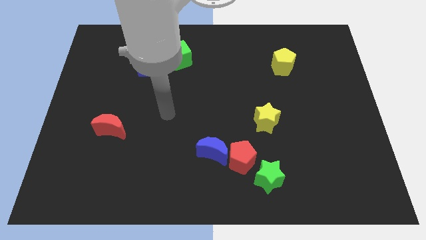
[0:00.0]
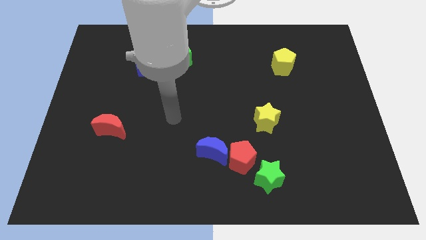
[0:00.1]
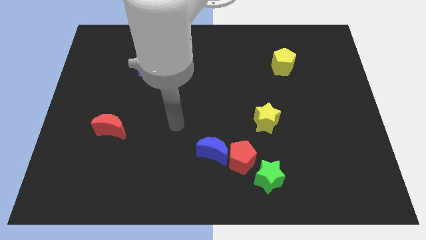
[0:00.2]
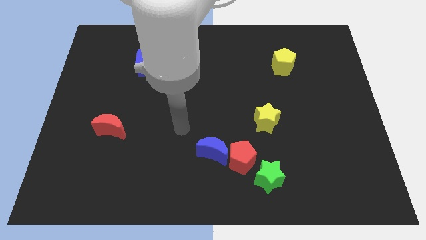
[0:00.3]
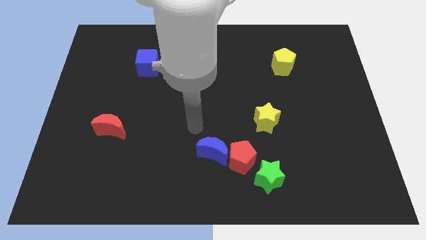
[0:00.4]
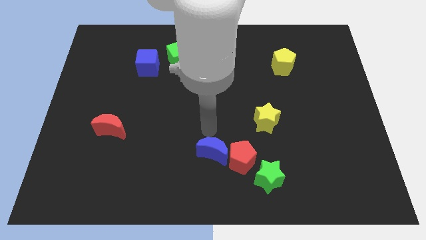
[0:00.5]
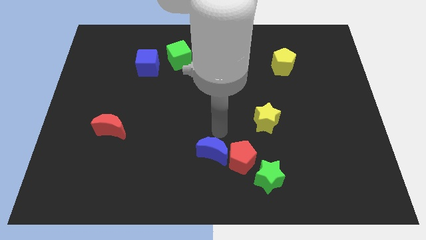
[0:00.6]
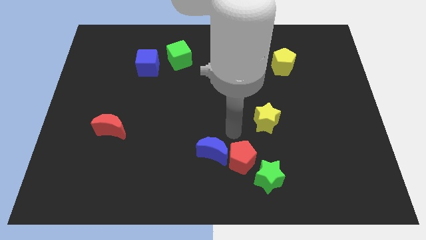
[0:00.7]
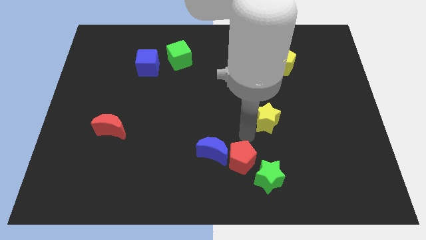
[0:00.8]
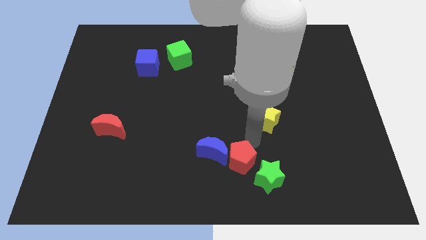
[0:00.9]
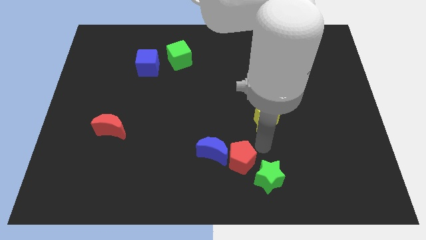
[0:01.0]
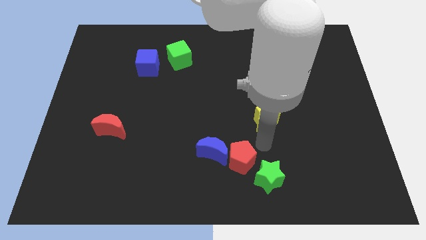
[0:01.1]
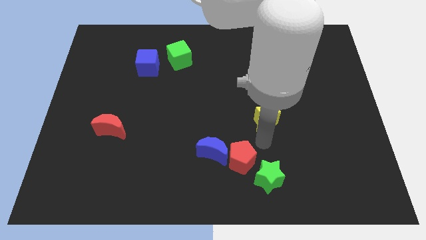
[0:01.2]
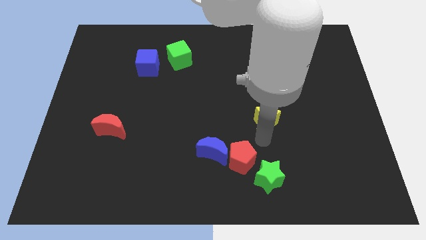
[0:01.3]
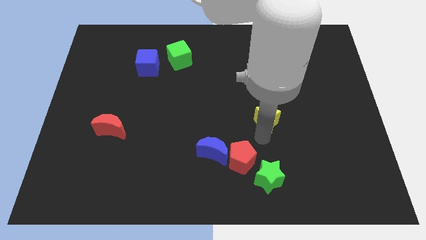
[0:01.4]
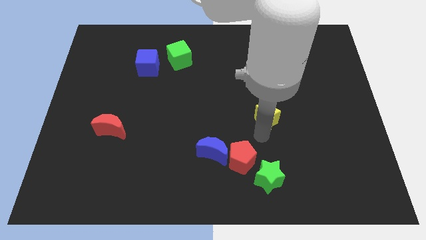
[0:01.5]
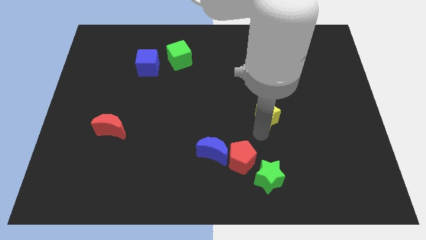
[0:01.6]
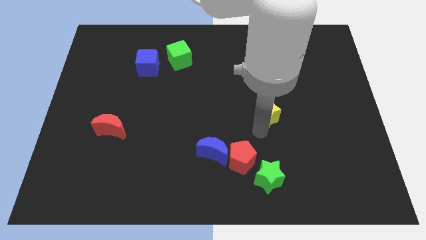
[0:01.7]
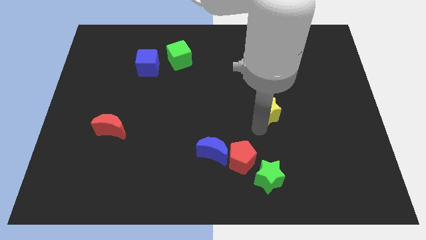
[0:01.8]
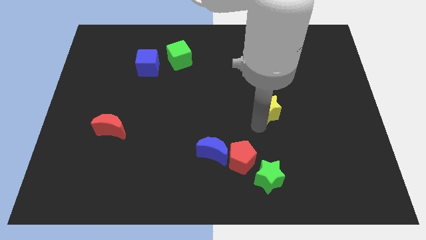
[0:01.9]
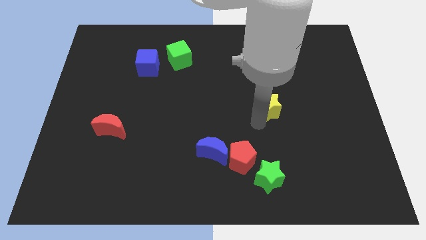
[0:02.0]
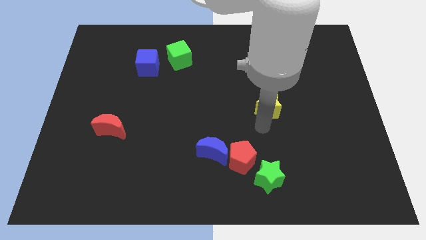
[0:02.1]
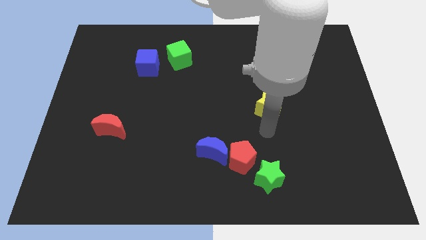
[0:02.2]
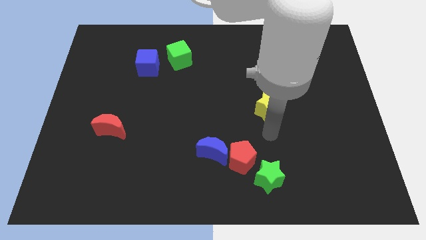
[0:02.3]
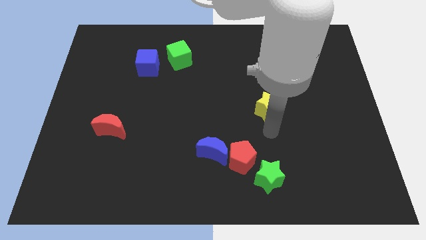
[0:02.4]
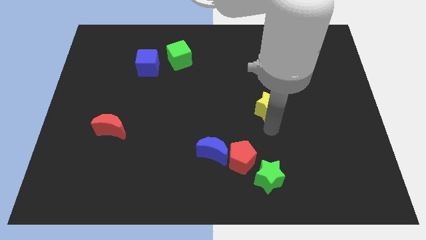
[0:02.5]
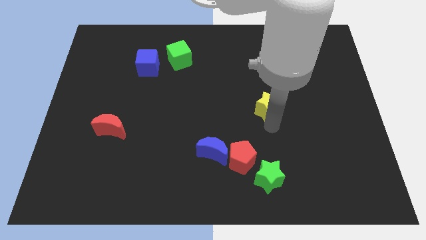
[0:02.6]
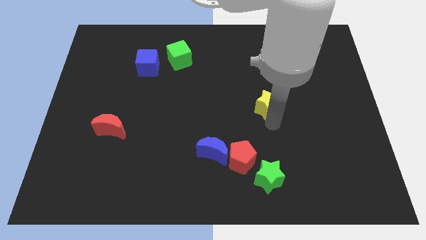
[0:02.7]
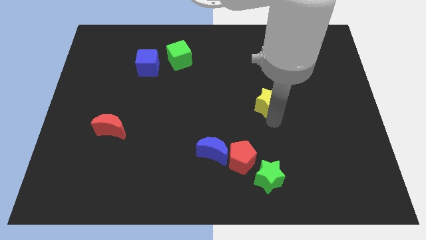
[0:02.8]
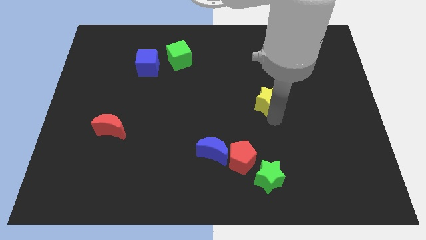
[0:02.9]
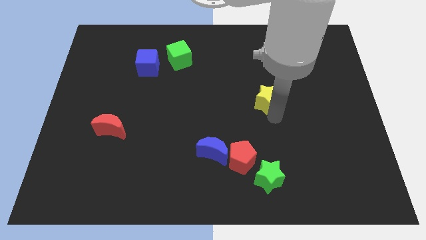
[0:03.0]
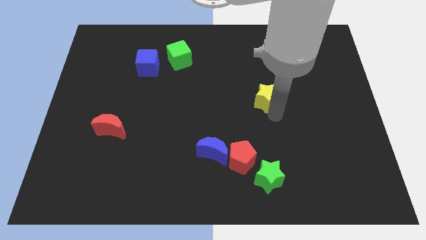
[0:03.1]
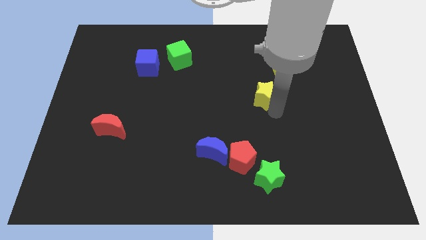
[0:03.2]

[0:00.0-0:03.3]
slide the yellow star a little bit upwards

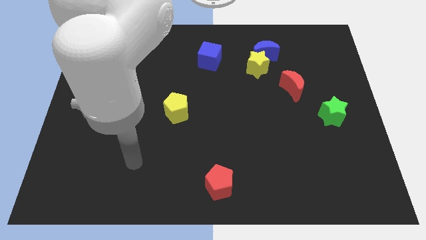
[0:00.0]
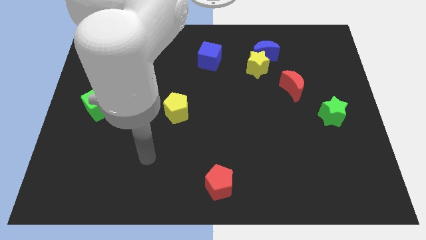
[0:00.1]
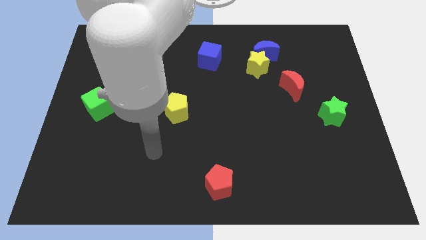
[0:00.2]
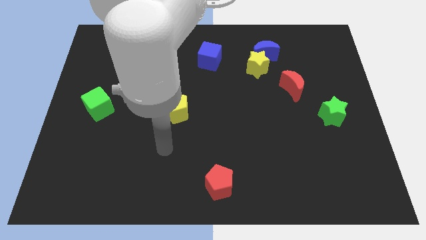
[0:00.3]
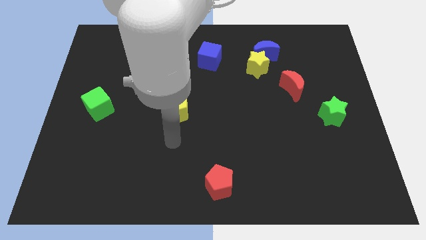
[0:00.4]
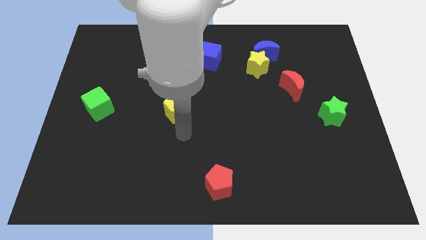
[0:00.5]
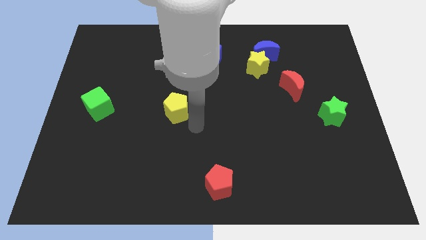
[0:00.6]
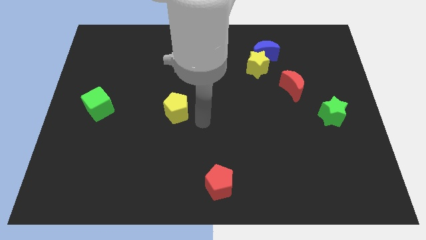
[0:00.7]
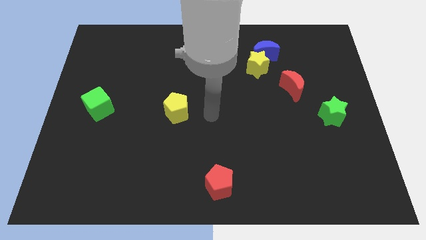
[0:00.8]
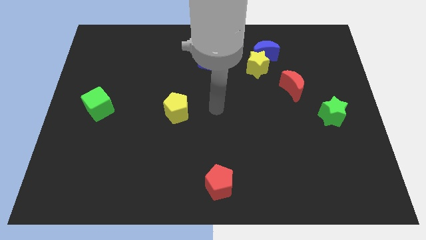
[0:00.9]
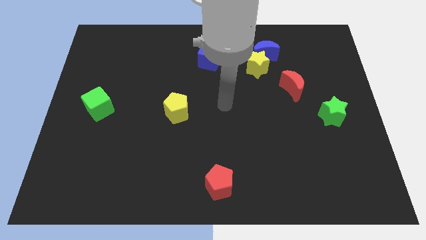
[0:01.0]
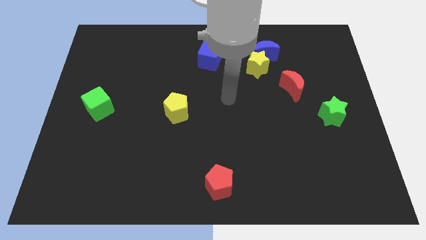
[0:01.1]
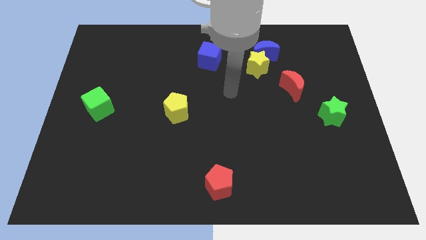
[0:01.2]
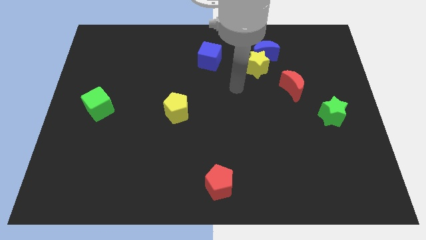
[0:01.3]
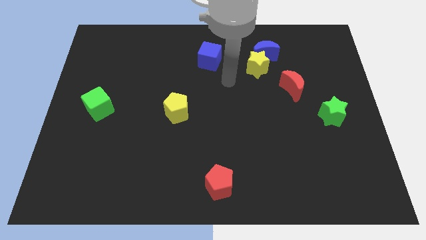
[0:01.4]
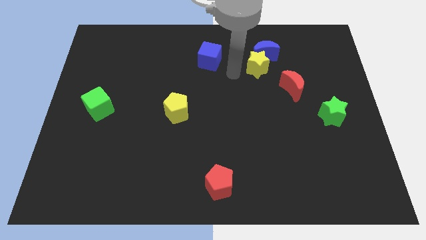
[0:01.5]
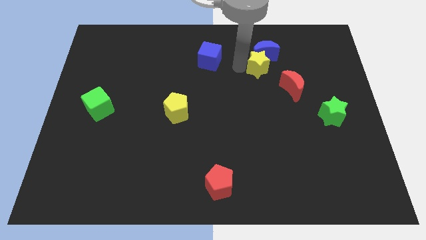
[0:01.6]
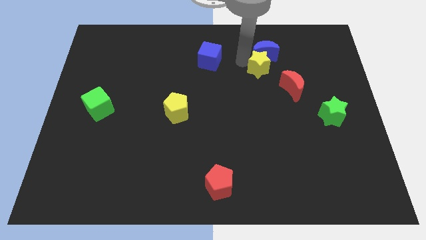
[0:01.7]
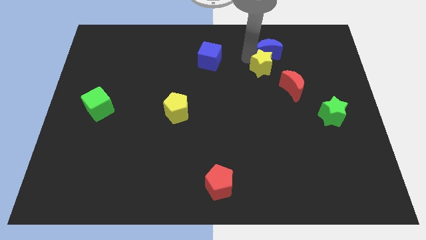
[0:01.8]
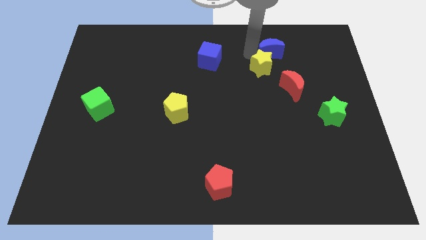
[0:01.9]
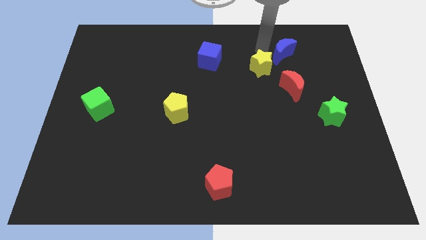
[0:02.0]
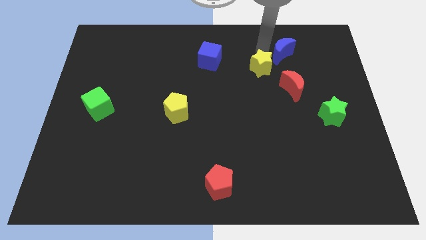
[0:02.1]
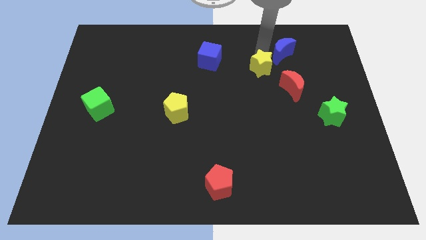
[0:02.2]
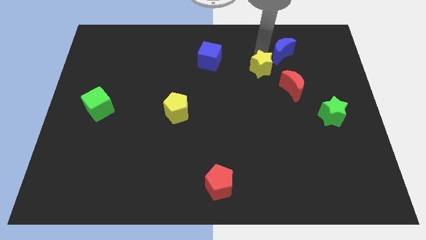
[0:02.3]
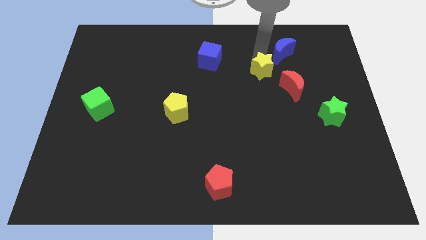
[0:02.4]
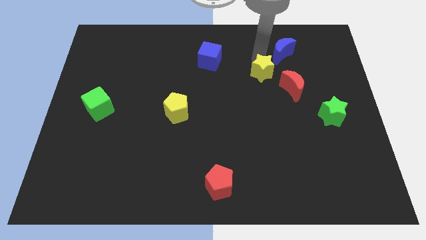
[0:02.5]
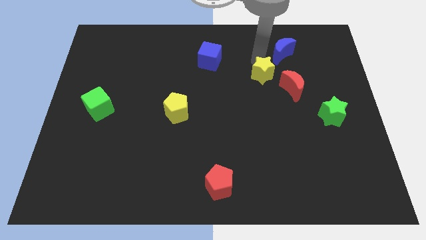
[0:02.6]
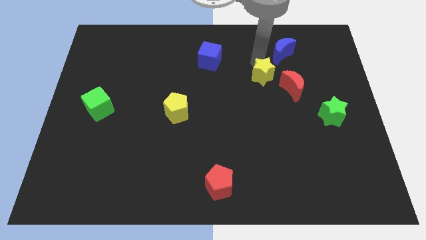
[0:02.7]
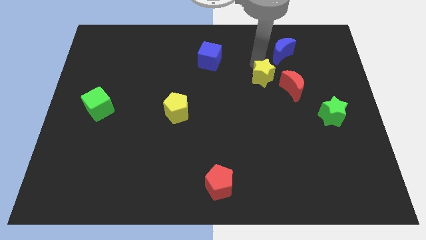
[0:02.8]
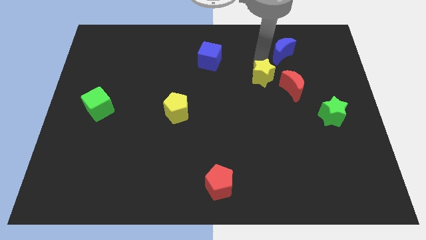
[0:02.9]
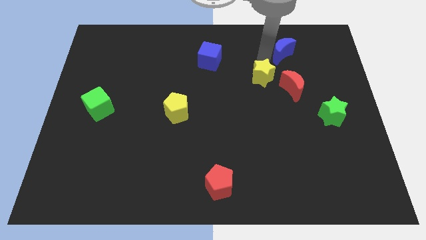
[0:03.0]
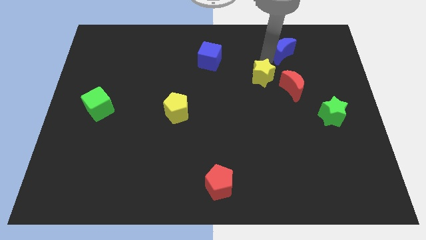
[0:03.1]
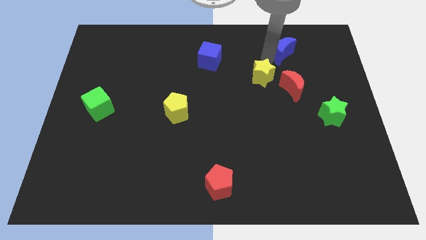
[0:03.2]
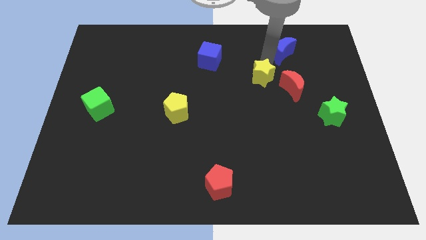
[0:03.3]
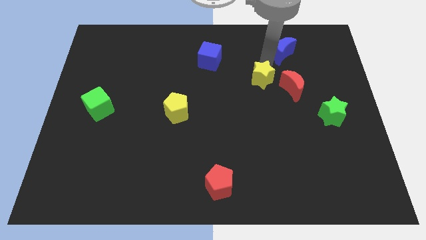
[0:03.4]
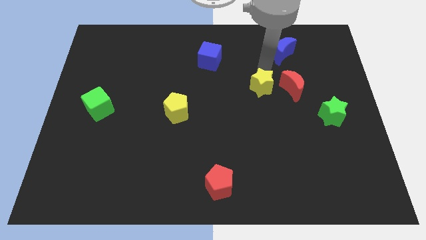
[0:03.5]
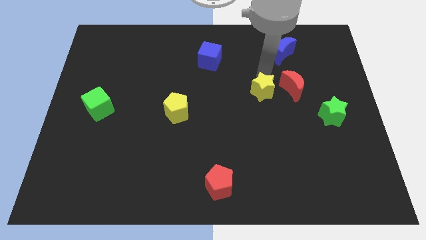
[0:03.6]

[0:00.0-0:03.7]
push the yellow star down somewhat

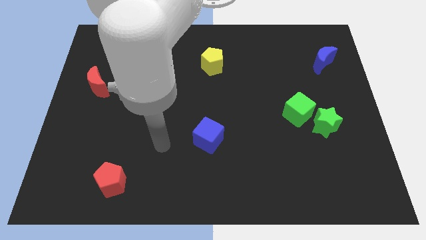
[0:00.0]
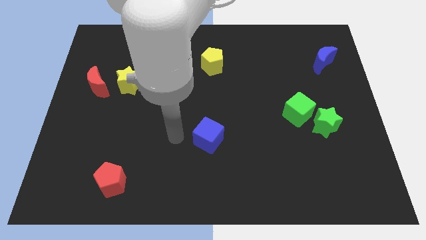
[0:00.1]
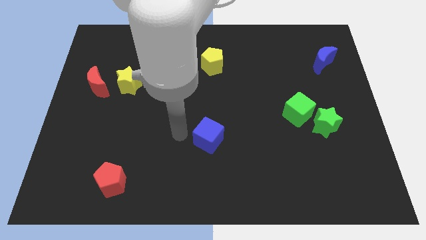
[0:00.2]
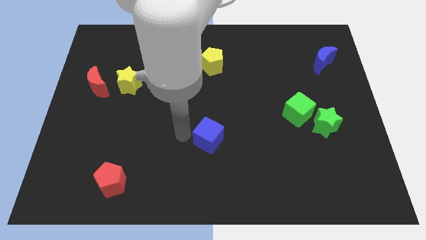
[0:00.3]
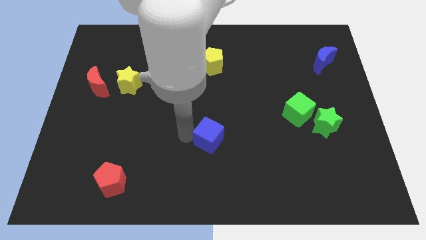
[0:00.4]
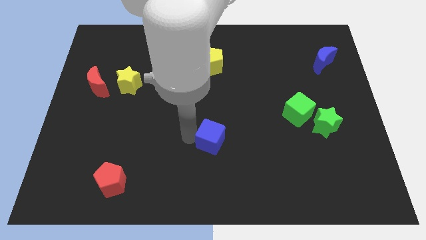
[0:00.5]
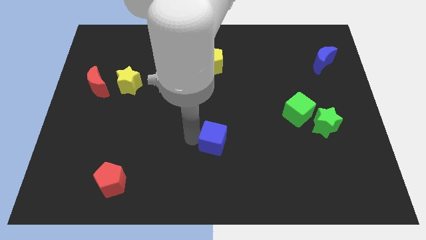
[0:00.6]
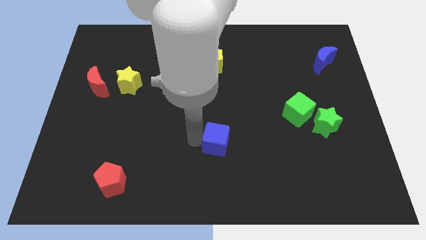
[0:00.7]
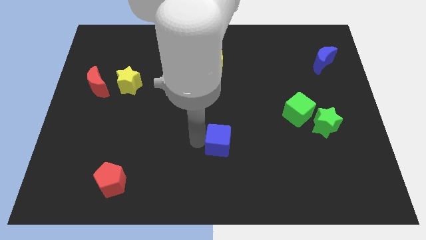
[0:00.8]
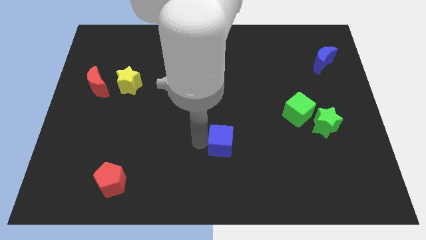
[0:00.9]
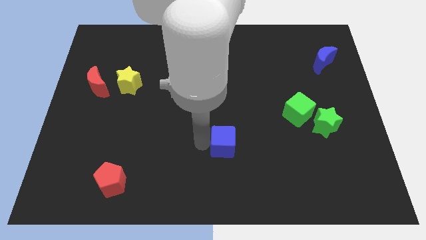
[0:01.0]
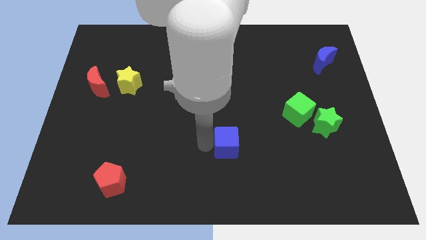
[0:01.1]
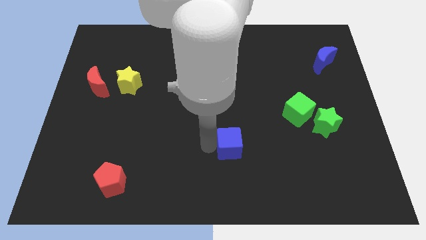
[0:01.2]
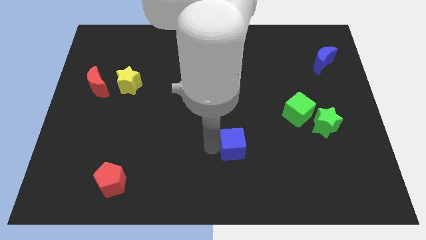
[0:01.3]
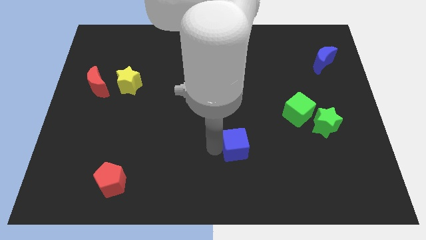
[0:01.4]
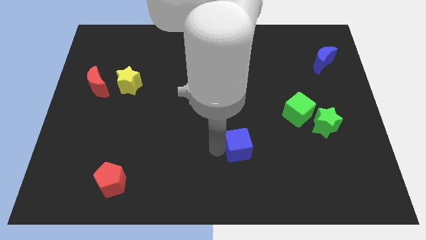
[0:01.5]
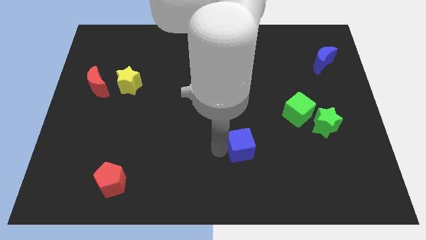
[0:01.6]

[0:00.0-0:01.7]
push the blue cube somewhat to the right
